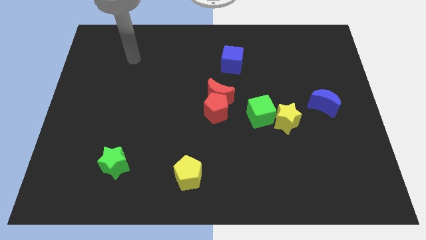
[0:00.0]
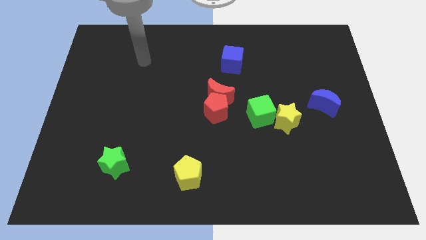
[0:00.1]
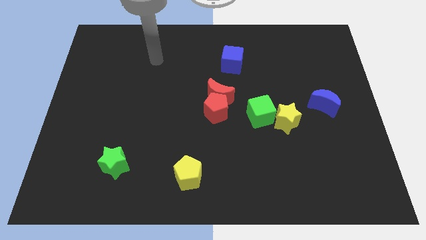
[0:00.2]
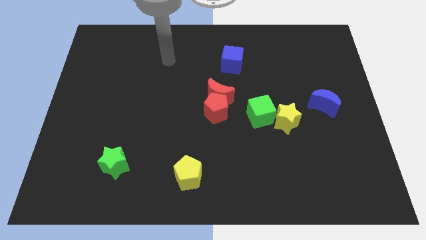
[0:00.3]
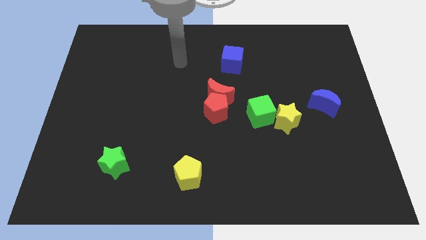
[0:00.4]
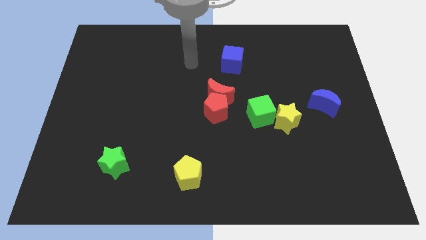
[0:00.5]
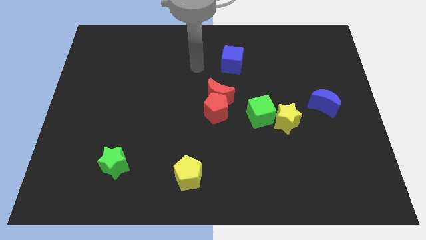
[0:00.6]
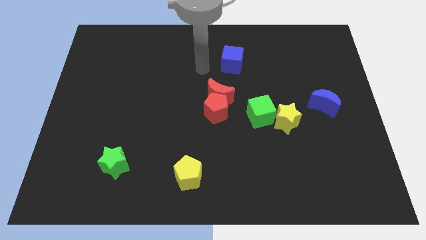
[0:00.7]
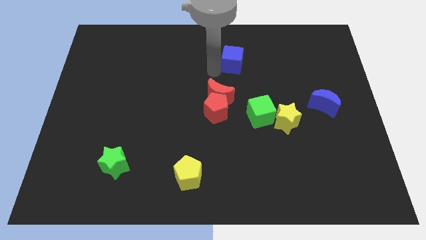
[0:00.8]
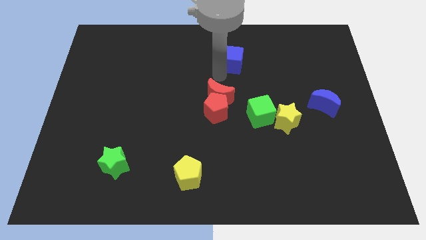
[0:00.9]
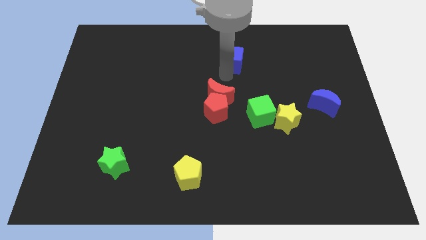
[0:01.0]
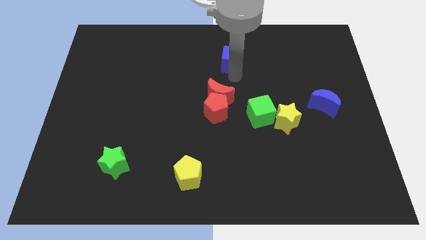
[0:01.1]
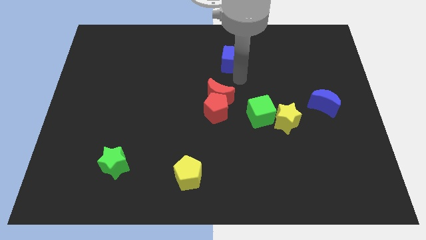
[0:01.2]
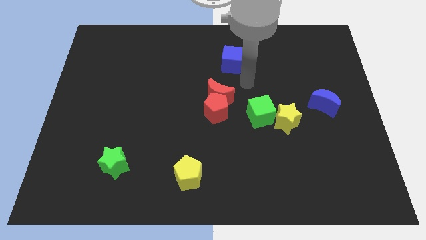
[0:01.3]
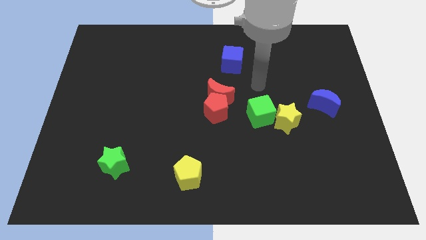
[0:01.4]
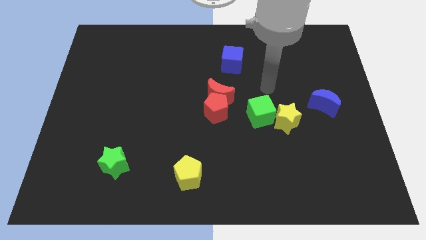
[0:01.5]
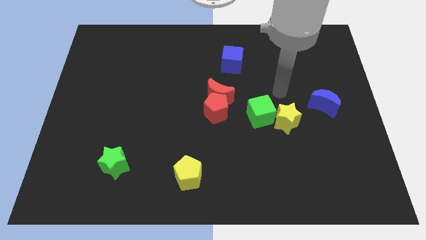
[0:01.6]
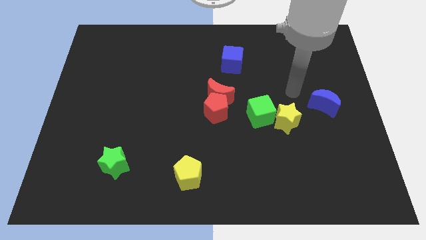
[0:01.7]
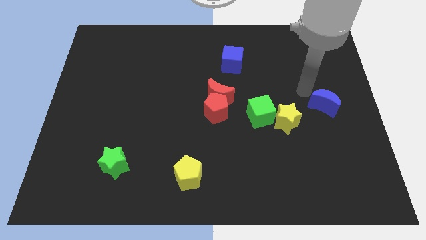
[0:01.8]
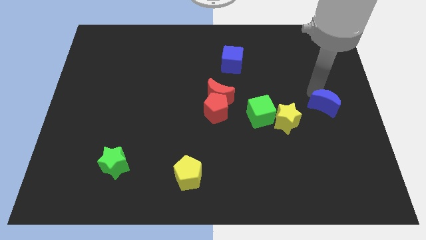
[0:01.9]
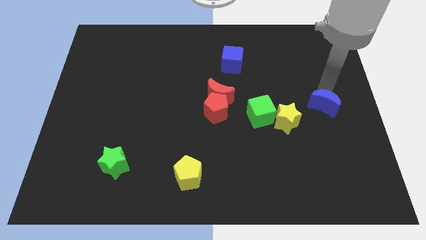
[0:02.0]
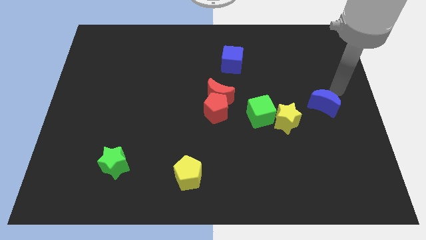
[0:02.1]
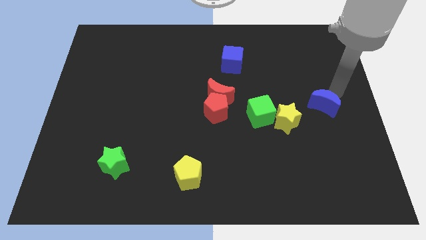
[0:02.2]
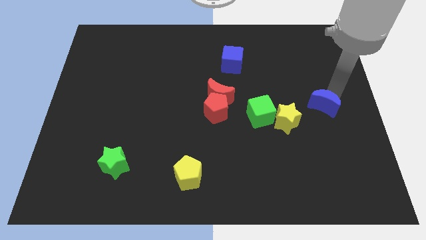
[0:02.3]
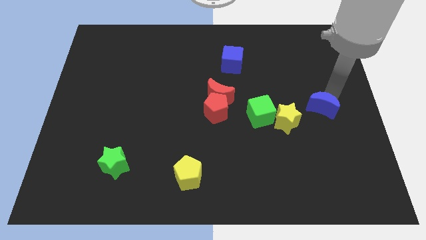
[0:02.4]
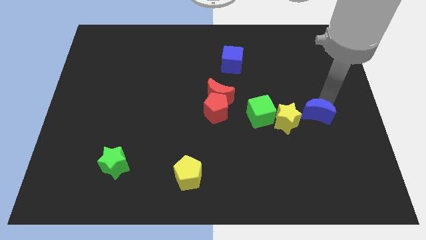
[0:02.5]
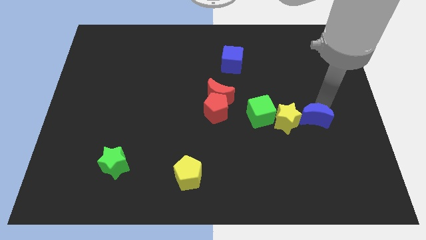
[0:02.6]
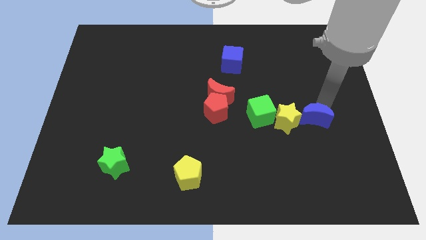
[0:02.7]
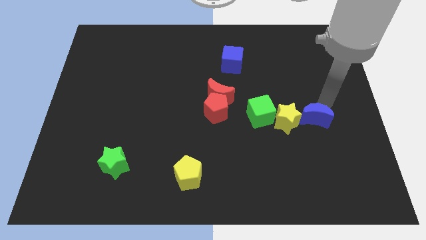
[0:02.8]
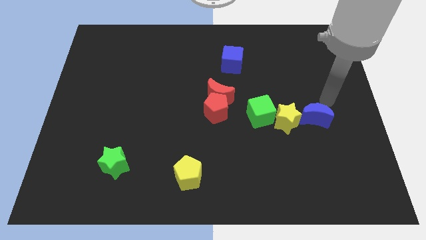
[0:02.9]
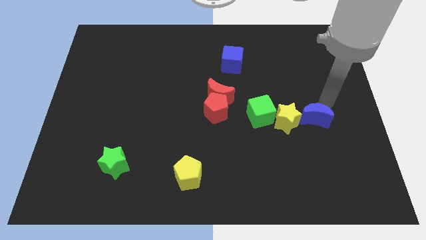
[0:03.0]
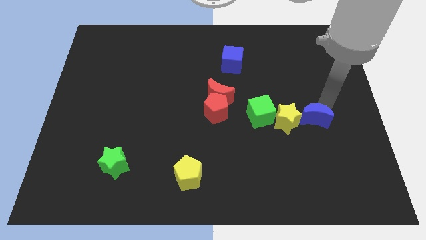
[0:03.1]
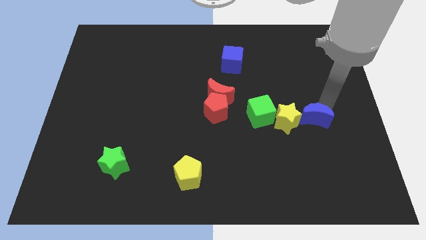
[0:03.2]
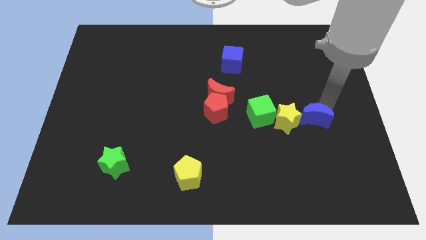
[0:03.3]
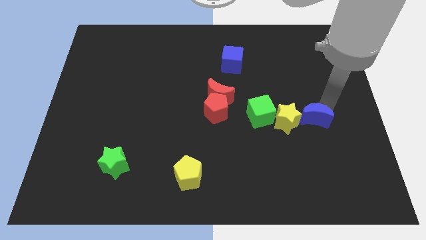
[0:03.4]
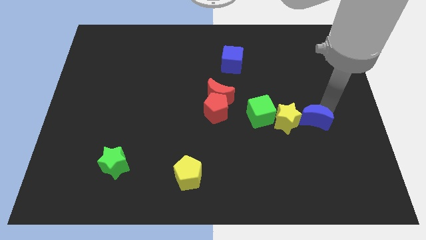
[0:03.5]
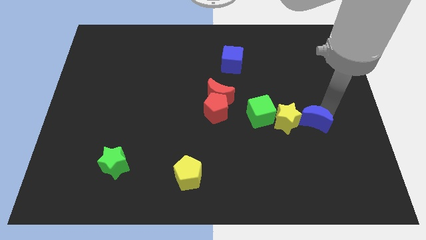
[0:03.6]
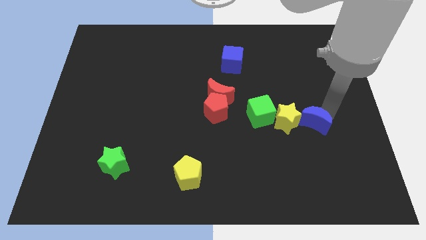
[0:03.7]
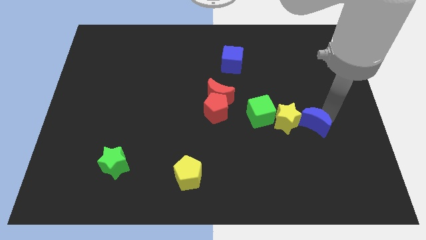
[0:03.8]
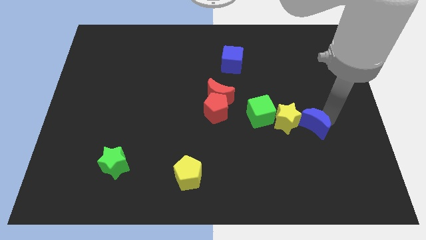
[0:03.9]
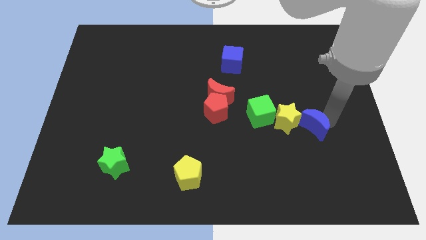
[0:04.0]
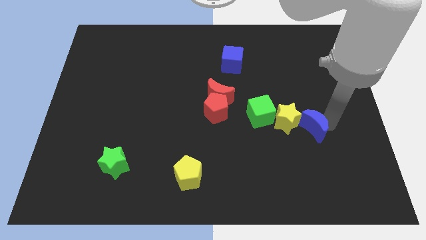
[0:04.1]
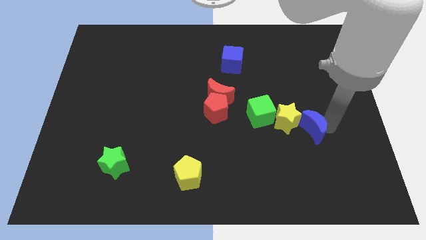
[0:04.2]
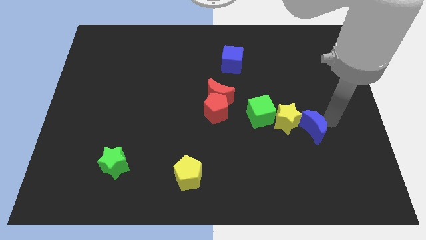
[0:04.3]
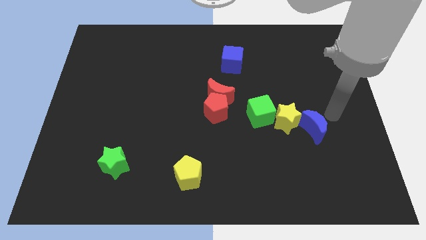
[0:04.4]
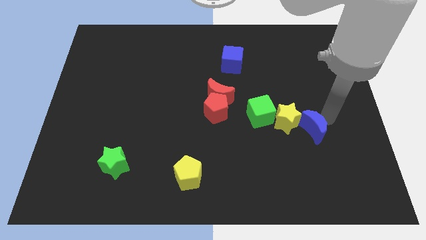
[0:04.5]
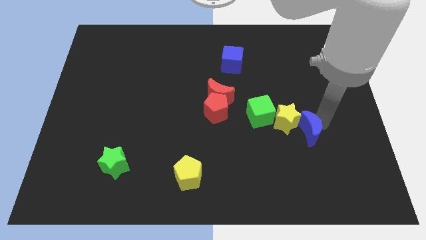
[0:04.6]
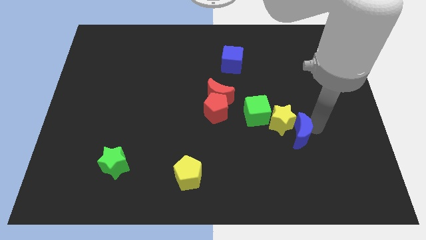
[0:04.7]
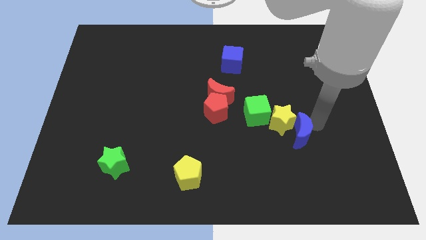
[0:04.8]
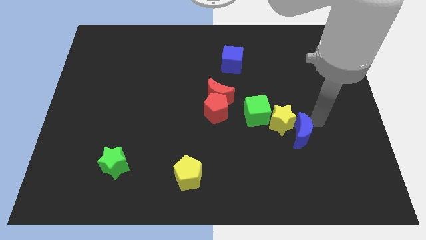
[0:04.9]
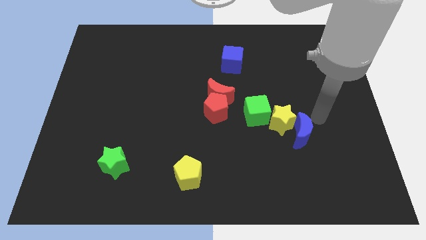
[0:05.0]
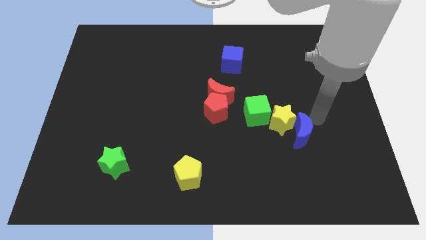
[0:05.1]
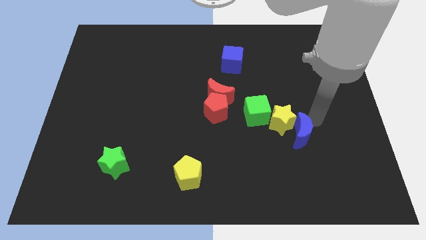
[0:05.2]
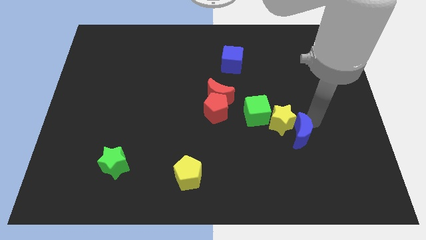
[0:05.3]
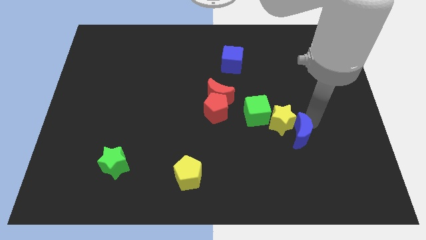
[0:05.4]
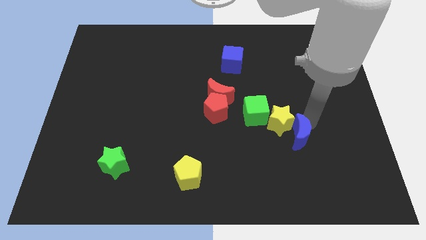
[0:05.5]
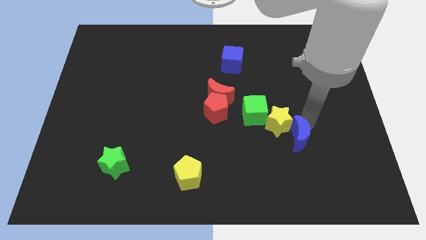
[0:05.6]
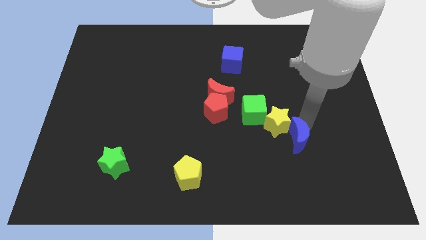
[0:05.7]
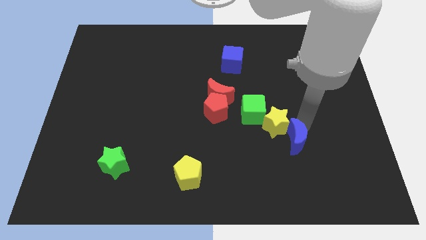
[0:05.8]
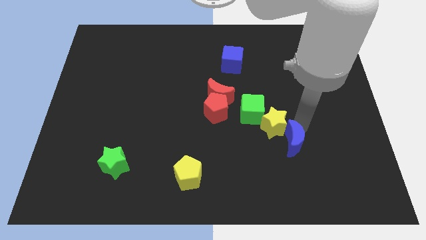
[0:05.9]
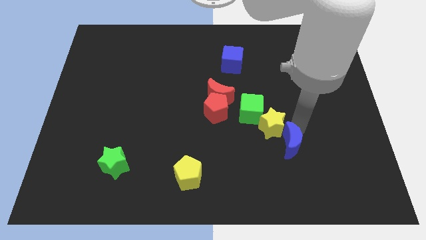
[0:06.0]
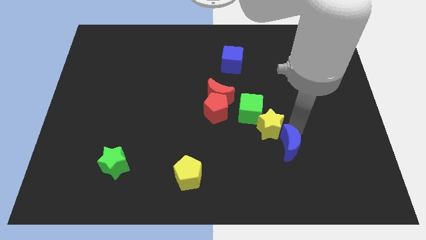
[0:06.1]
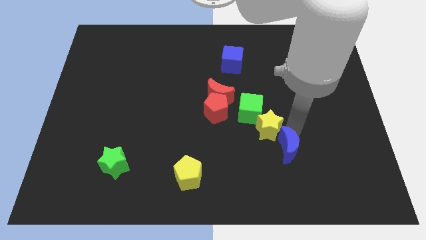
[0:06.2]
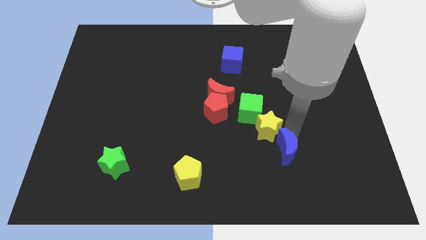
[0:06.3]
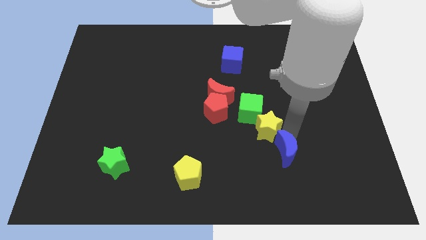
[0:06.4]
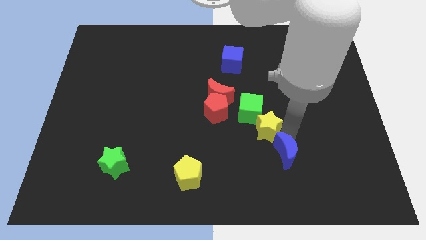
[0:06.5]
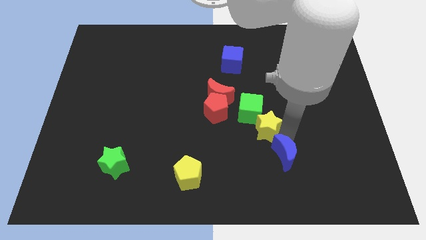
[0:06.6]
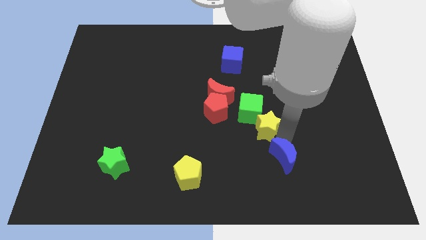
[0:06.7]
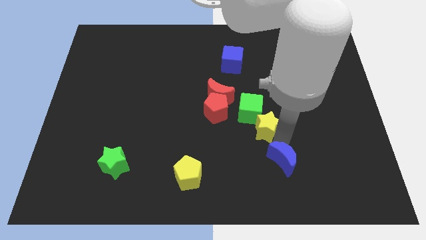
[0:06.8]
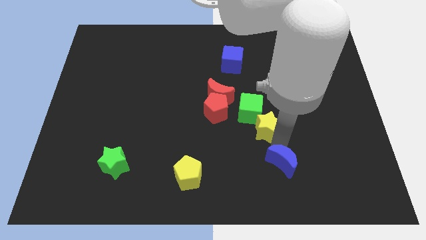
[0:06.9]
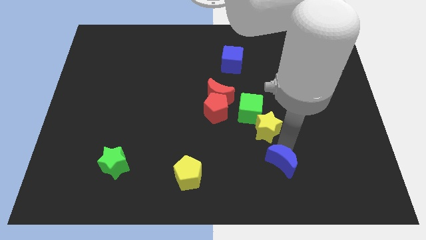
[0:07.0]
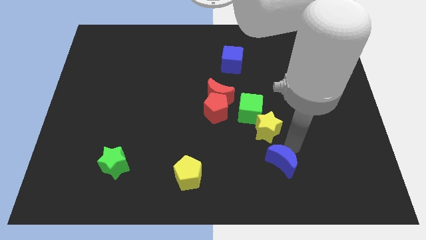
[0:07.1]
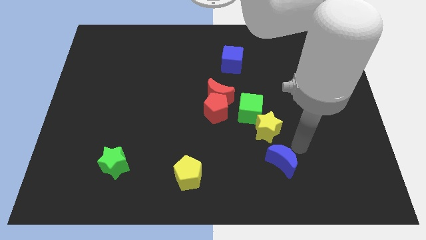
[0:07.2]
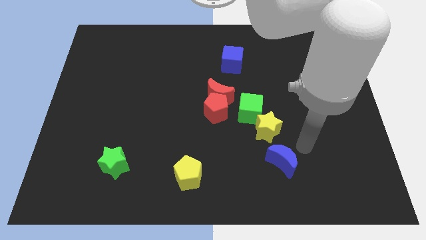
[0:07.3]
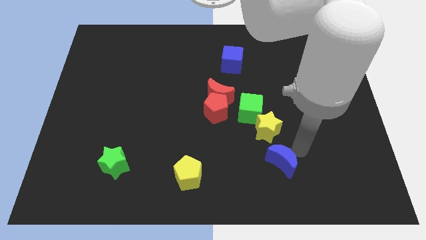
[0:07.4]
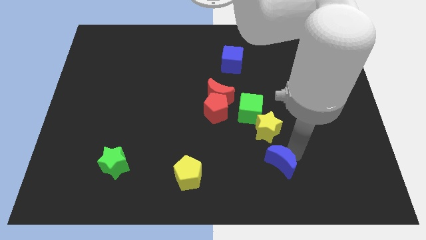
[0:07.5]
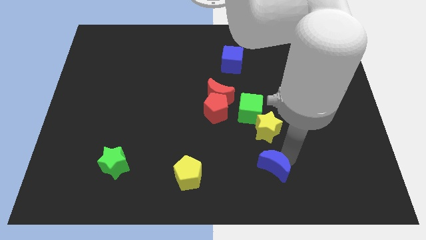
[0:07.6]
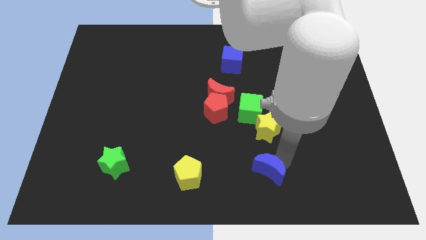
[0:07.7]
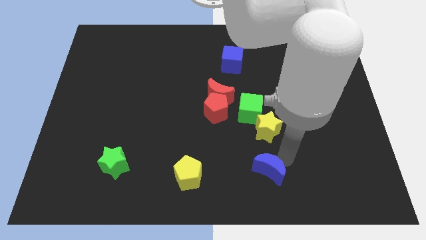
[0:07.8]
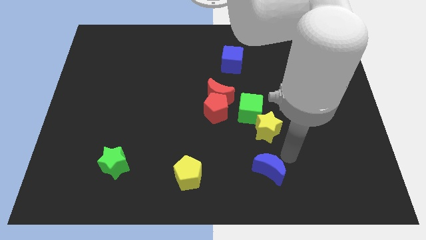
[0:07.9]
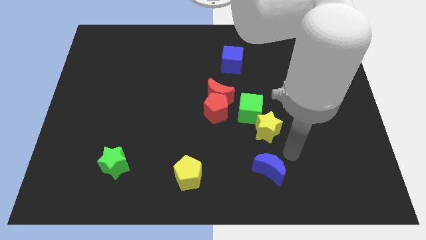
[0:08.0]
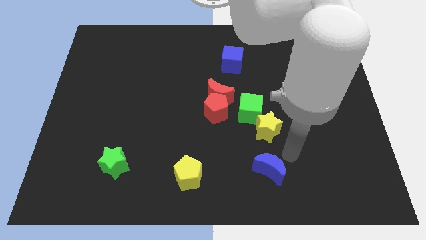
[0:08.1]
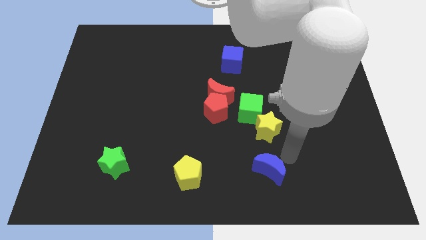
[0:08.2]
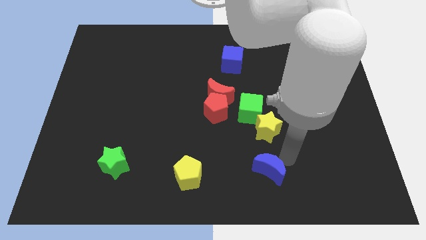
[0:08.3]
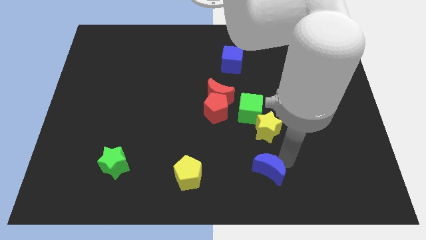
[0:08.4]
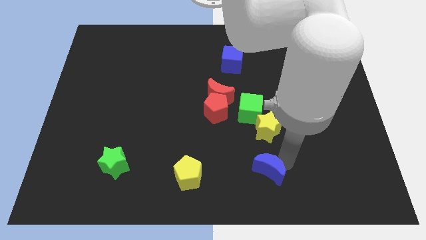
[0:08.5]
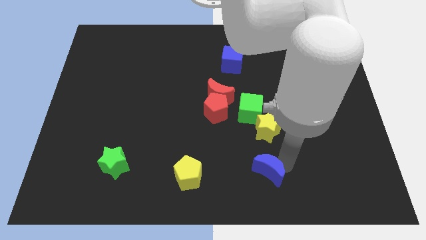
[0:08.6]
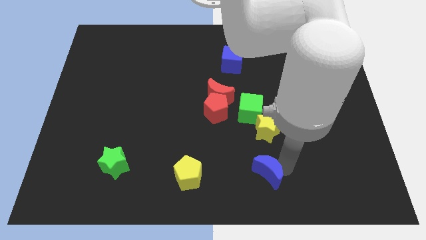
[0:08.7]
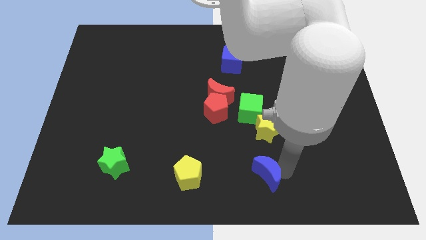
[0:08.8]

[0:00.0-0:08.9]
put the blue moon to the bottom
